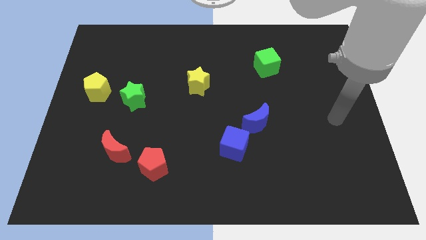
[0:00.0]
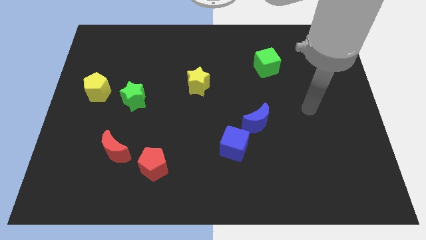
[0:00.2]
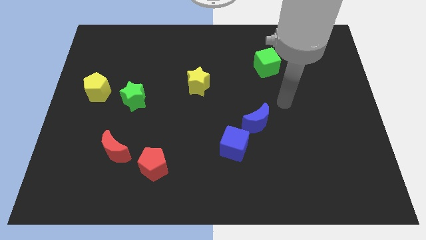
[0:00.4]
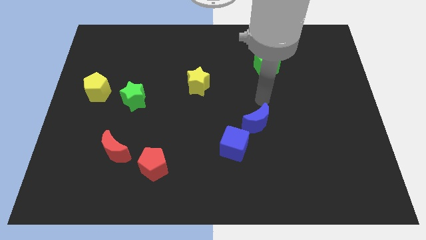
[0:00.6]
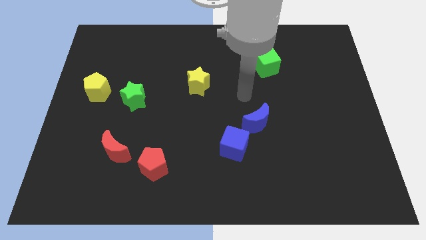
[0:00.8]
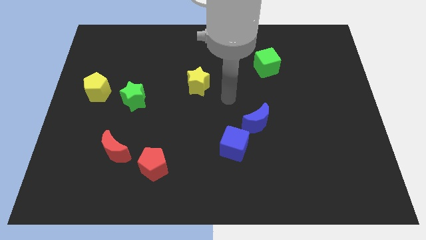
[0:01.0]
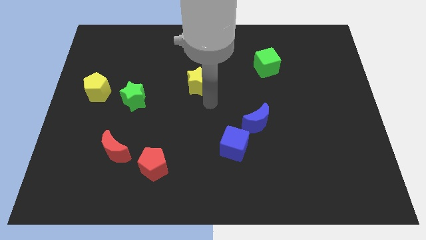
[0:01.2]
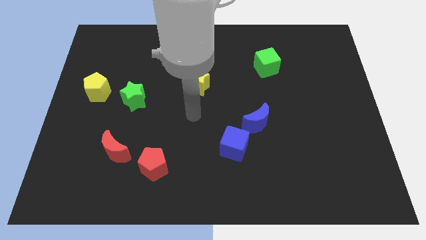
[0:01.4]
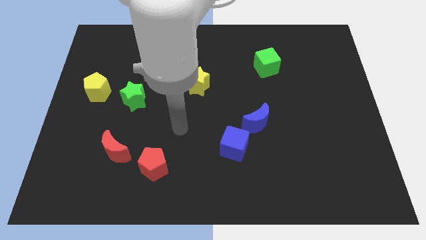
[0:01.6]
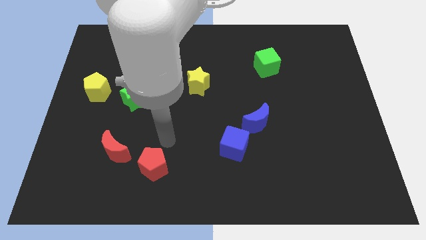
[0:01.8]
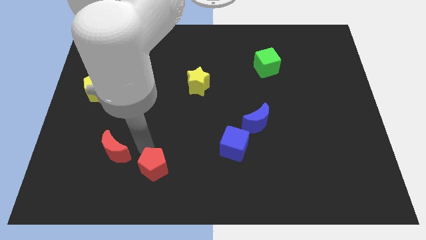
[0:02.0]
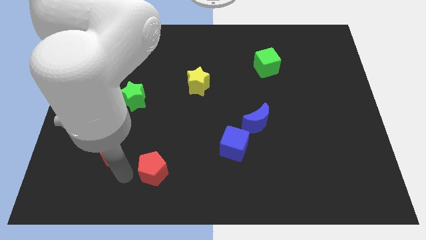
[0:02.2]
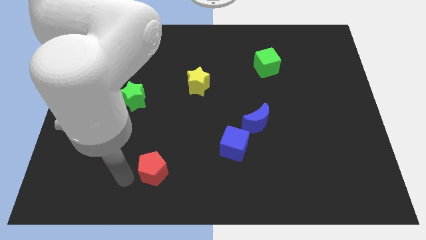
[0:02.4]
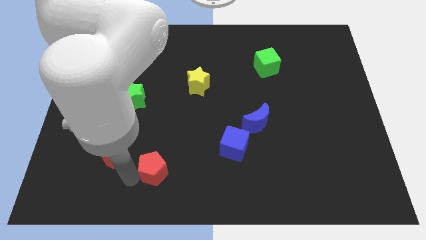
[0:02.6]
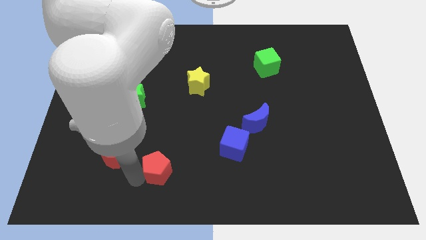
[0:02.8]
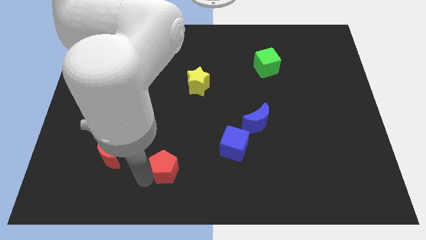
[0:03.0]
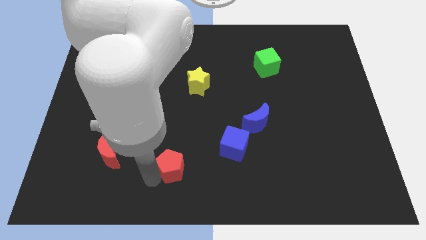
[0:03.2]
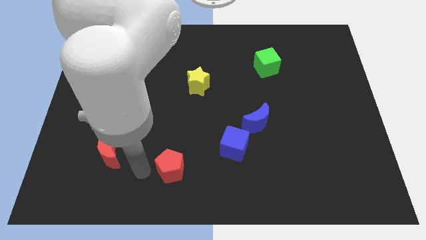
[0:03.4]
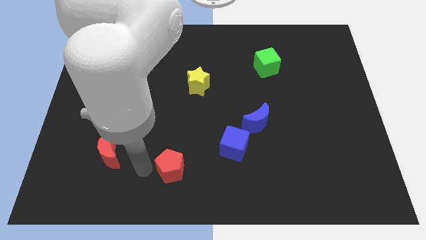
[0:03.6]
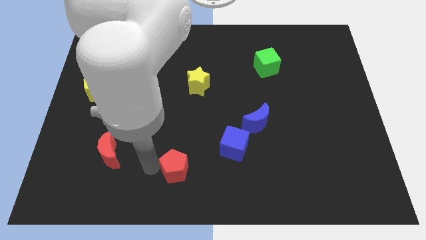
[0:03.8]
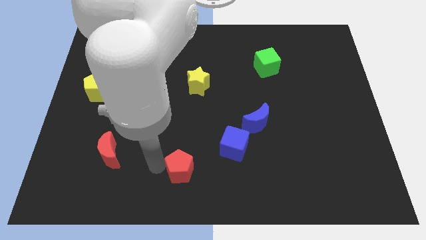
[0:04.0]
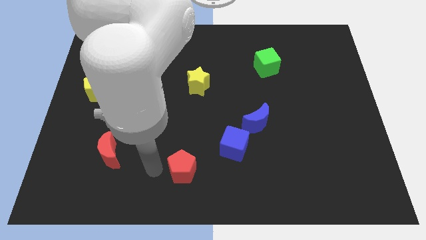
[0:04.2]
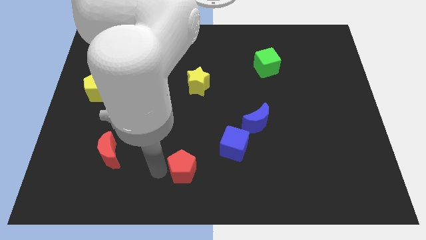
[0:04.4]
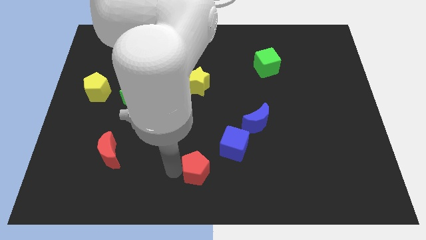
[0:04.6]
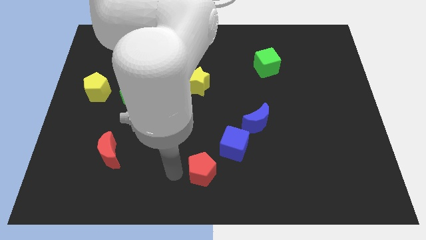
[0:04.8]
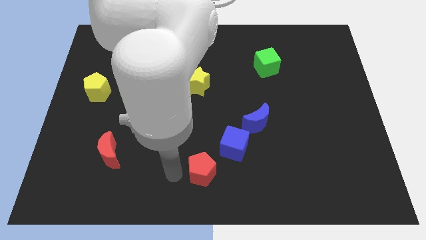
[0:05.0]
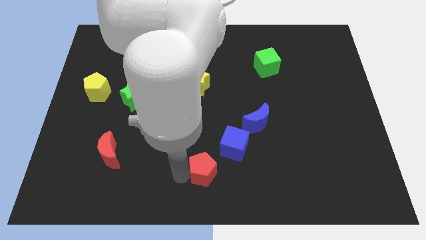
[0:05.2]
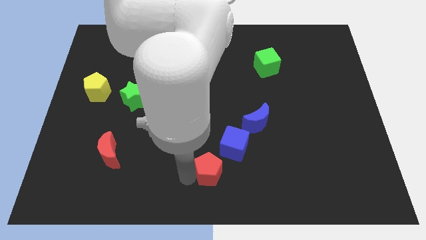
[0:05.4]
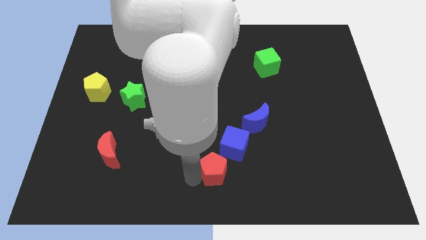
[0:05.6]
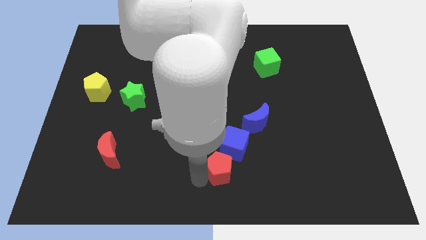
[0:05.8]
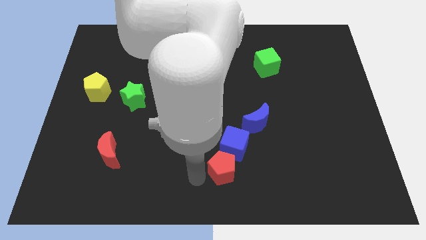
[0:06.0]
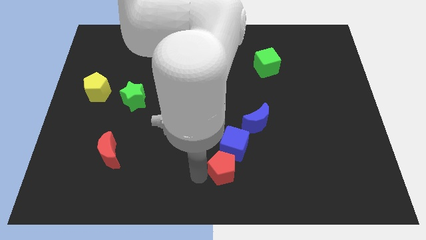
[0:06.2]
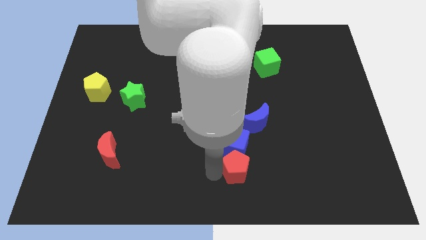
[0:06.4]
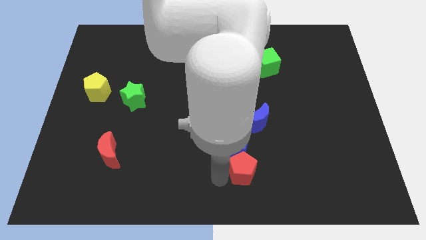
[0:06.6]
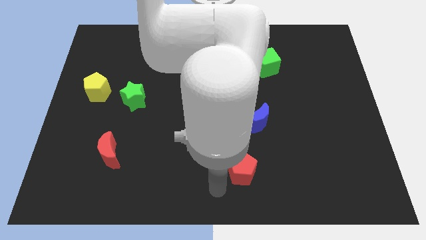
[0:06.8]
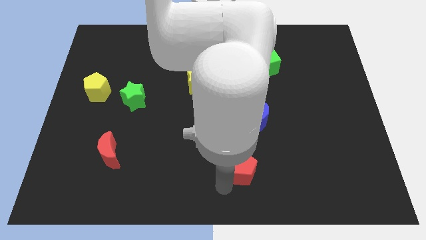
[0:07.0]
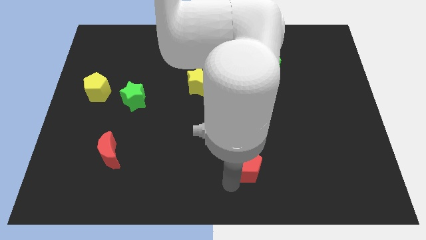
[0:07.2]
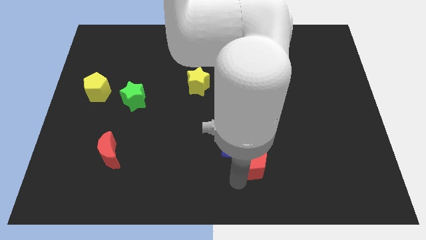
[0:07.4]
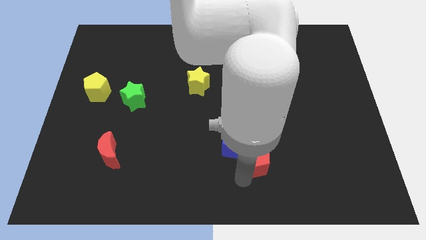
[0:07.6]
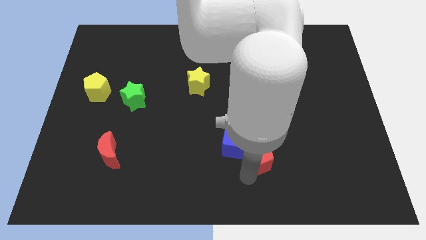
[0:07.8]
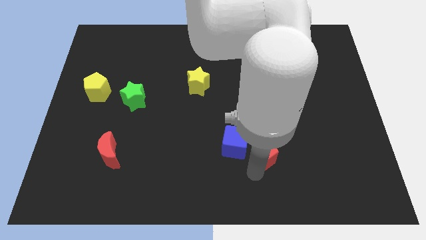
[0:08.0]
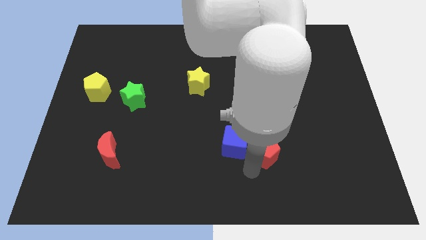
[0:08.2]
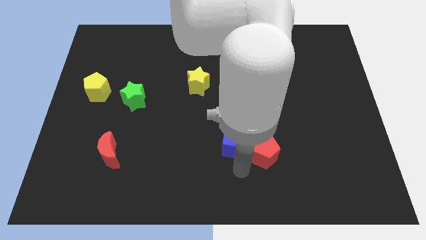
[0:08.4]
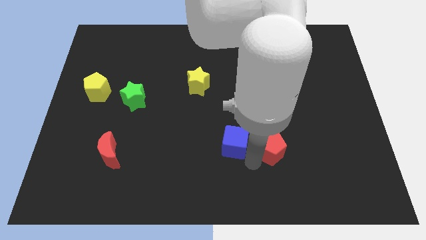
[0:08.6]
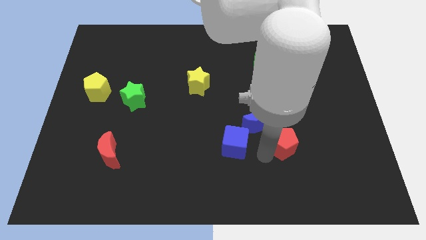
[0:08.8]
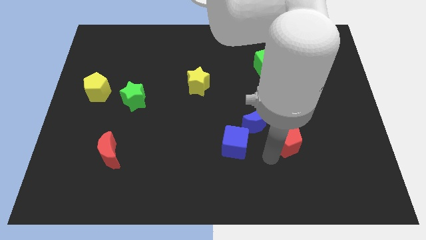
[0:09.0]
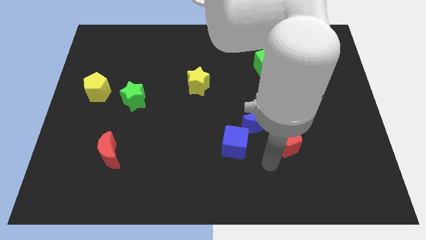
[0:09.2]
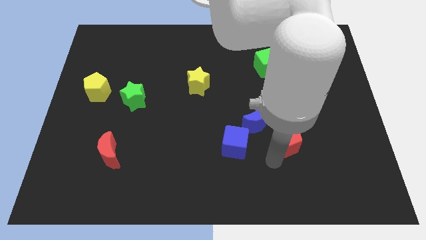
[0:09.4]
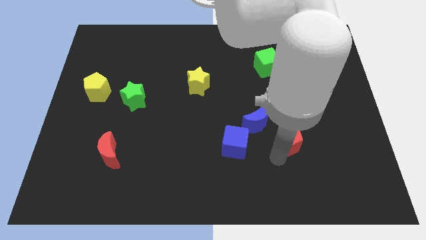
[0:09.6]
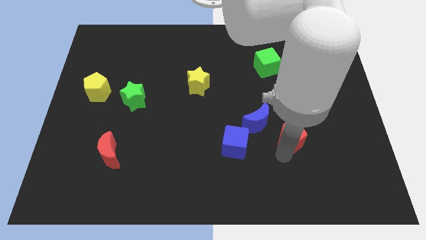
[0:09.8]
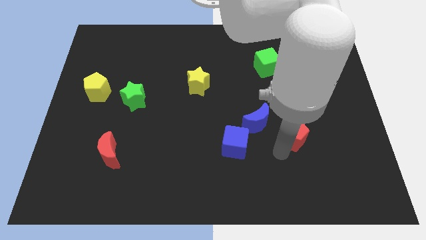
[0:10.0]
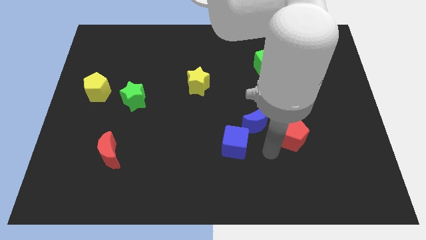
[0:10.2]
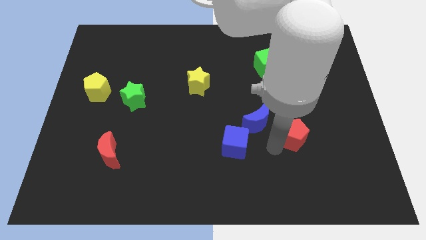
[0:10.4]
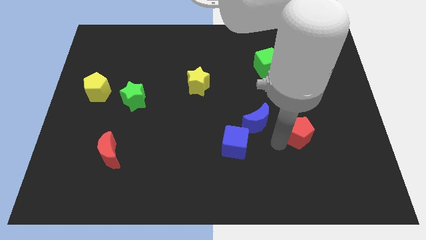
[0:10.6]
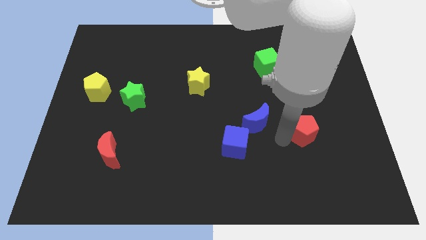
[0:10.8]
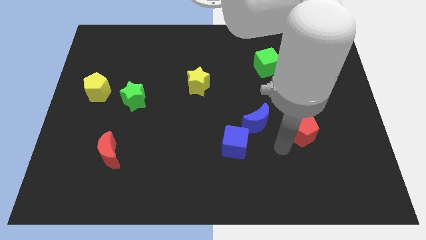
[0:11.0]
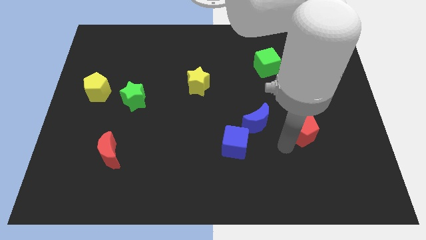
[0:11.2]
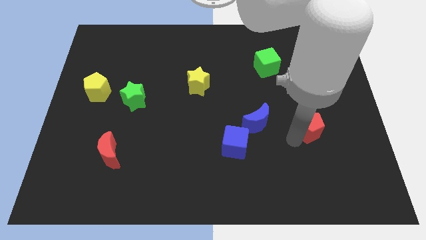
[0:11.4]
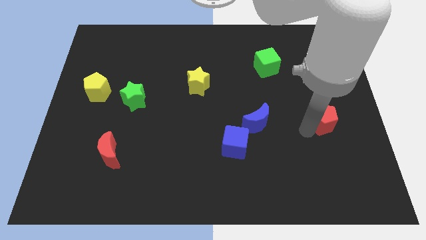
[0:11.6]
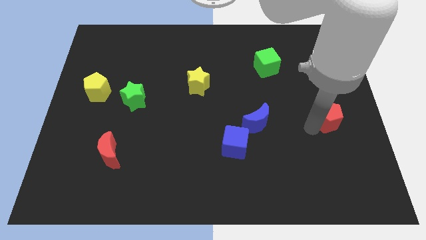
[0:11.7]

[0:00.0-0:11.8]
slide the red pentagon to the center right

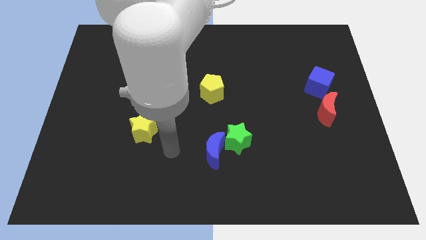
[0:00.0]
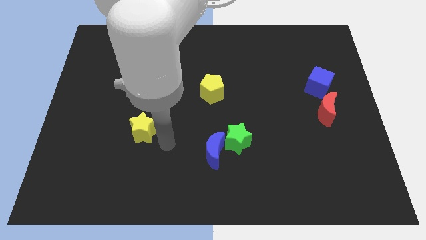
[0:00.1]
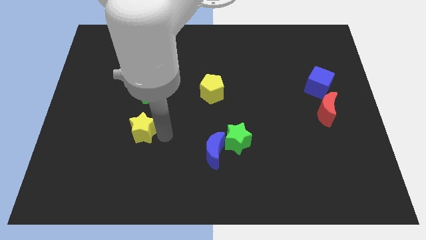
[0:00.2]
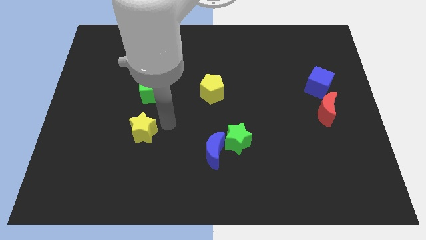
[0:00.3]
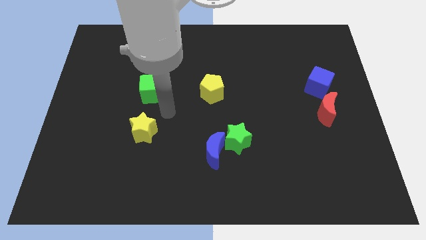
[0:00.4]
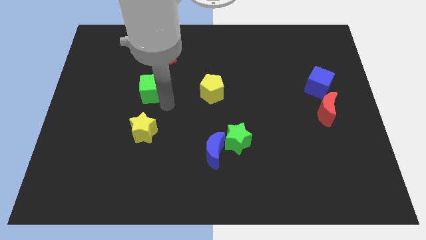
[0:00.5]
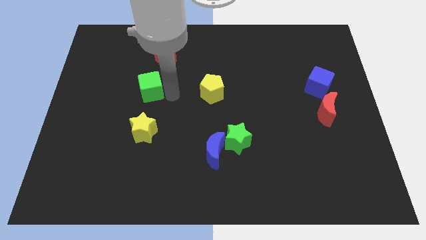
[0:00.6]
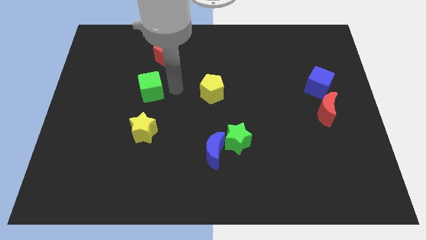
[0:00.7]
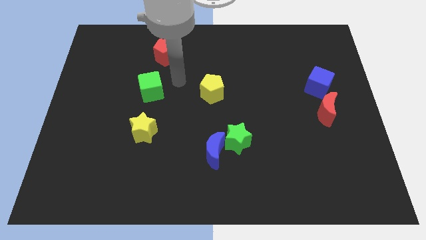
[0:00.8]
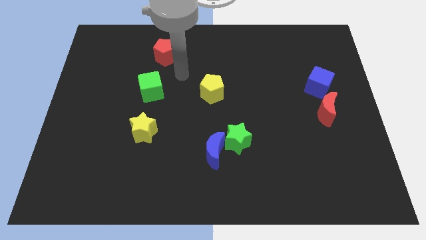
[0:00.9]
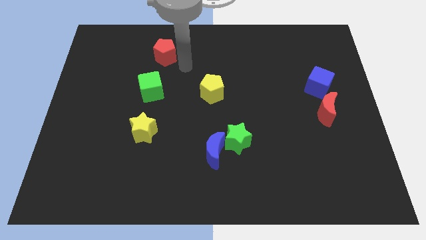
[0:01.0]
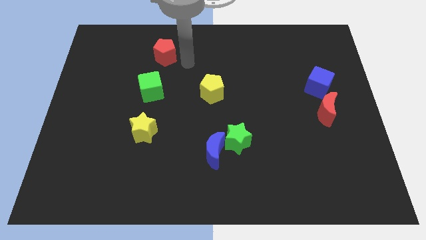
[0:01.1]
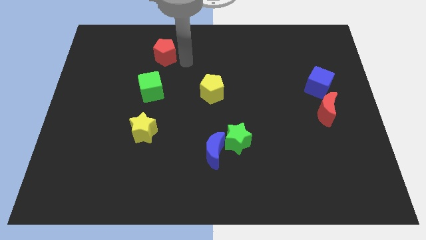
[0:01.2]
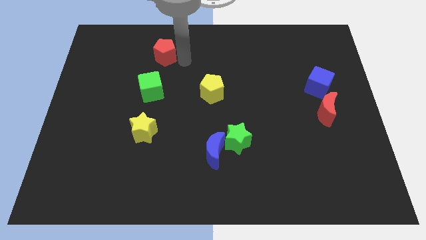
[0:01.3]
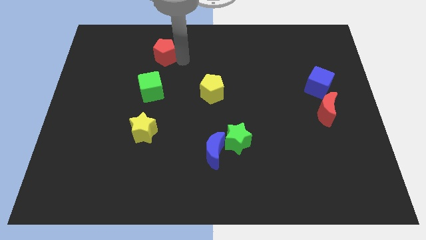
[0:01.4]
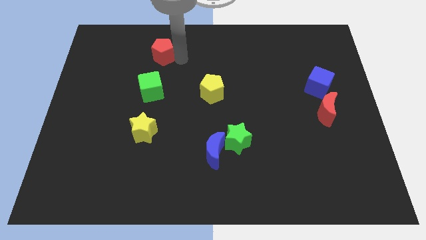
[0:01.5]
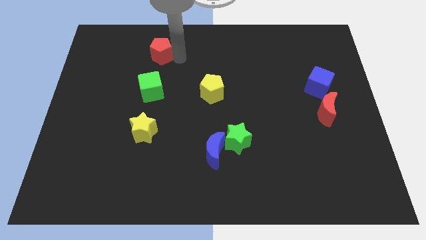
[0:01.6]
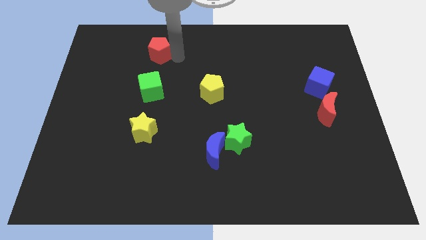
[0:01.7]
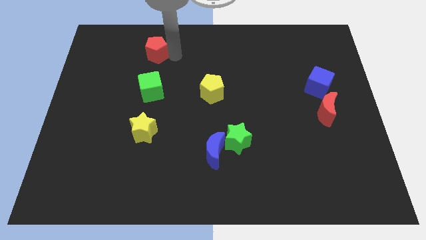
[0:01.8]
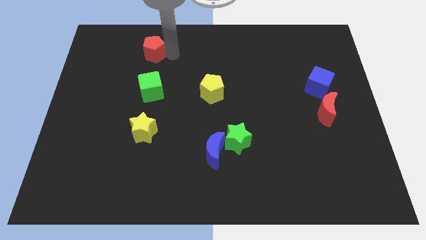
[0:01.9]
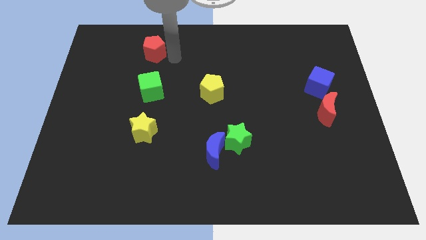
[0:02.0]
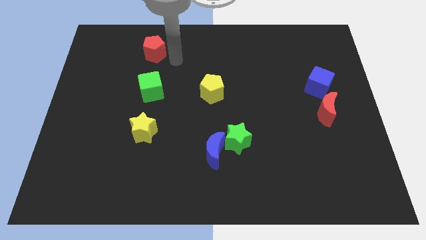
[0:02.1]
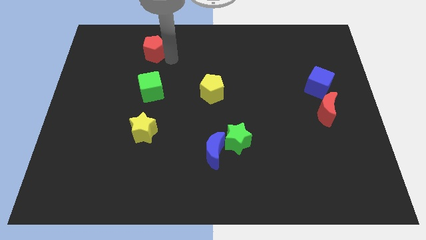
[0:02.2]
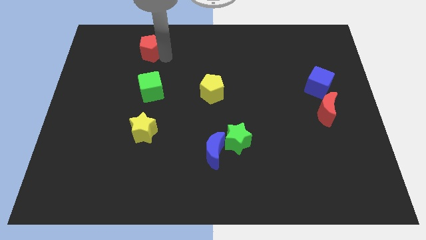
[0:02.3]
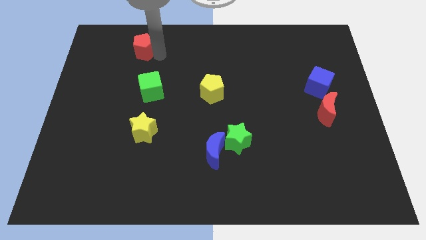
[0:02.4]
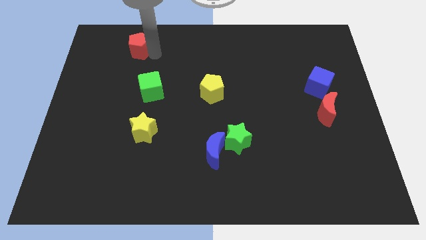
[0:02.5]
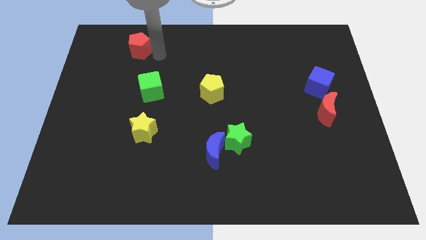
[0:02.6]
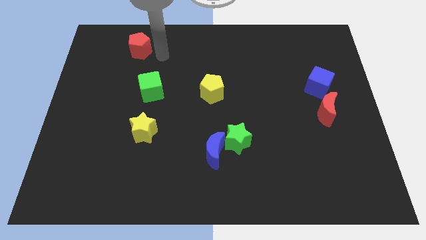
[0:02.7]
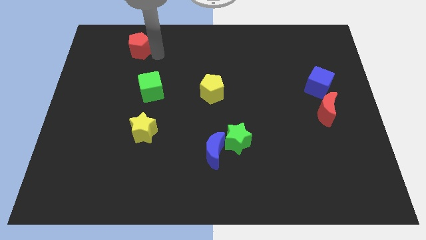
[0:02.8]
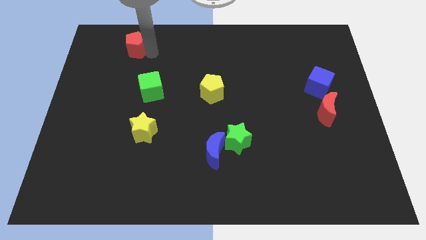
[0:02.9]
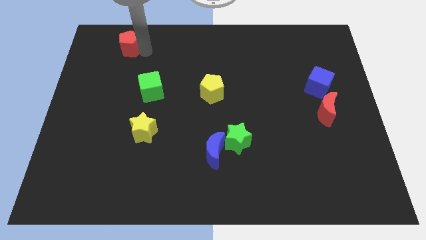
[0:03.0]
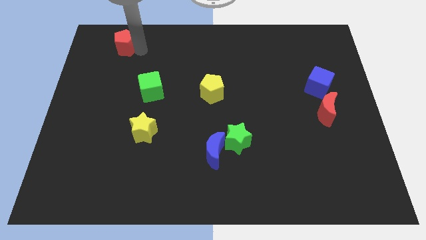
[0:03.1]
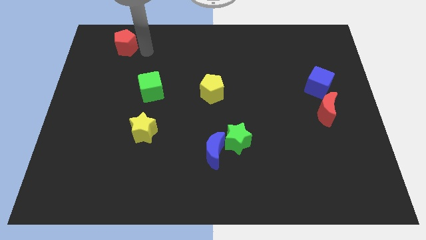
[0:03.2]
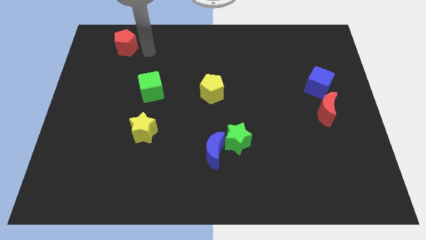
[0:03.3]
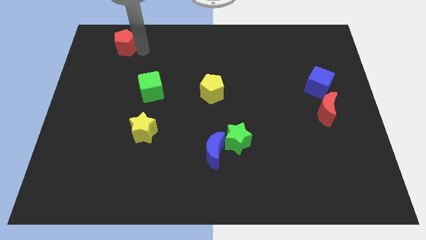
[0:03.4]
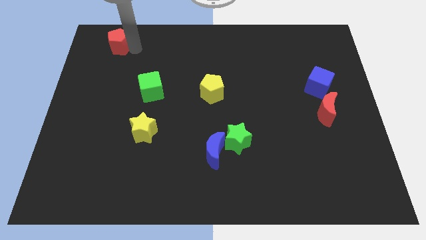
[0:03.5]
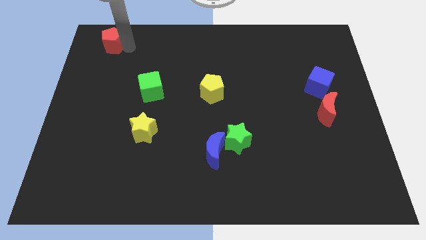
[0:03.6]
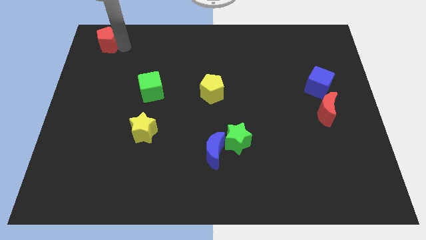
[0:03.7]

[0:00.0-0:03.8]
move the red pentagon to the top left of the board
